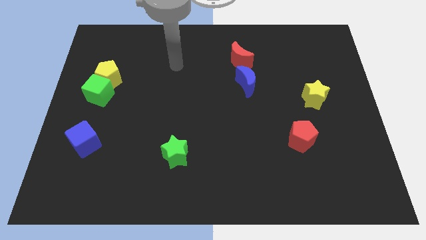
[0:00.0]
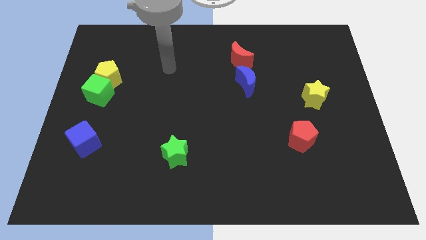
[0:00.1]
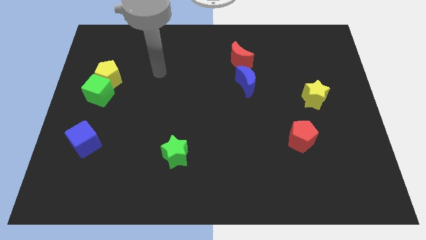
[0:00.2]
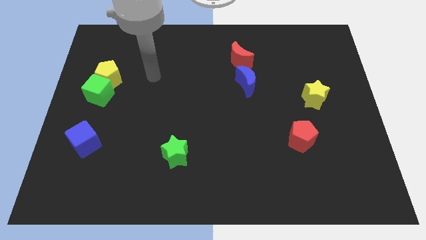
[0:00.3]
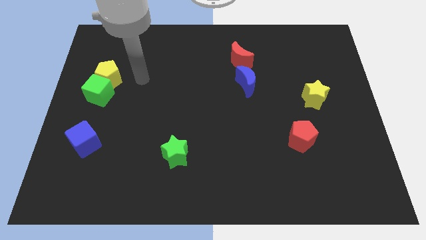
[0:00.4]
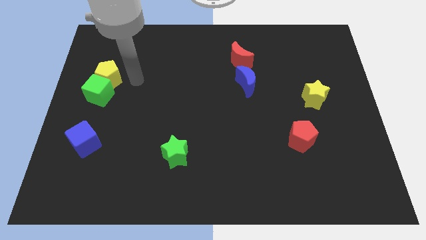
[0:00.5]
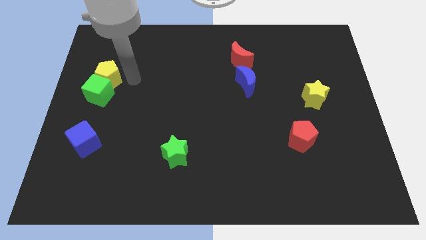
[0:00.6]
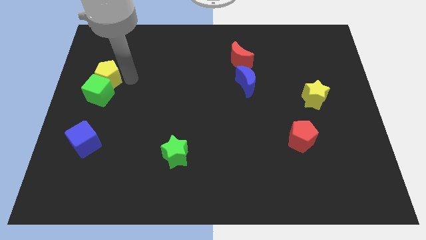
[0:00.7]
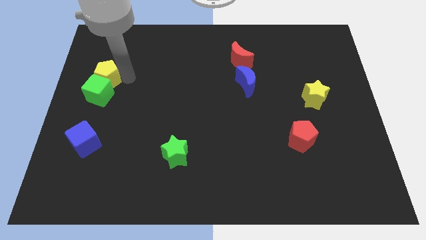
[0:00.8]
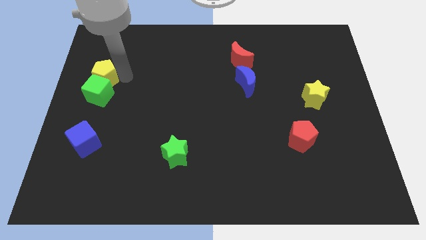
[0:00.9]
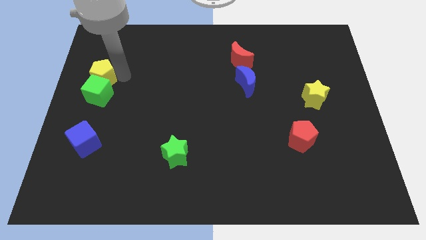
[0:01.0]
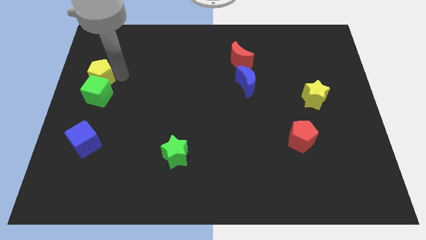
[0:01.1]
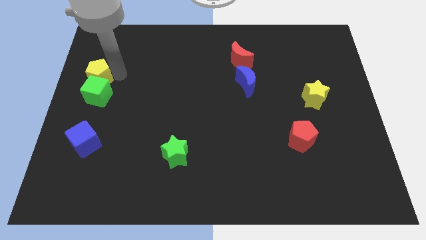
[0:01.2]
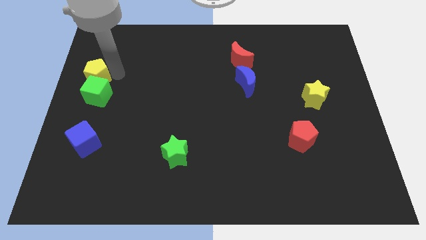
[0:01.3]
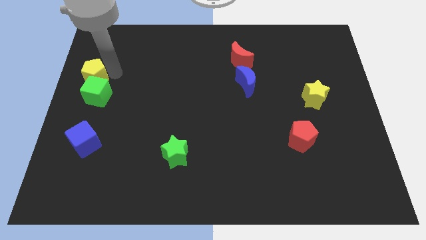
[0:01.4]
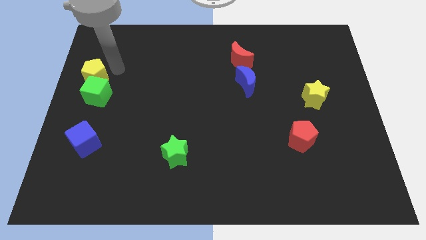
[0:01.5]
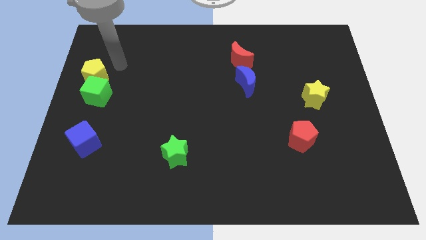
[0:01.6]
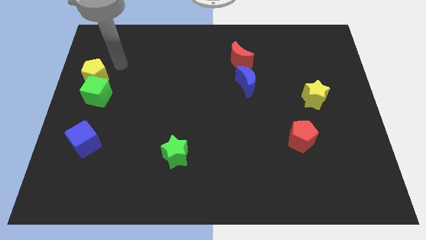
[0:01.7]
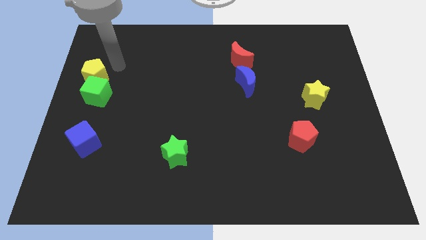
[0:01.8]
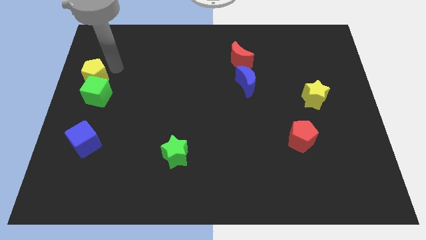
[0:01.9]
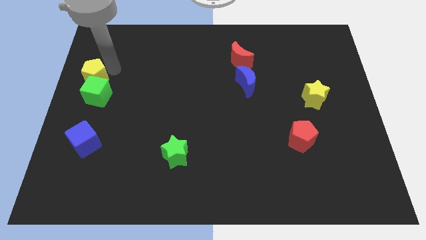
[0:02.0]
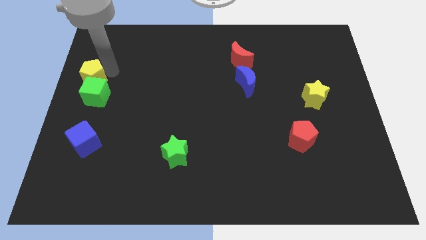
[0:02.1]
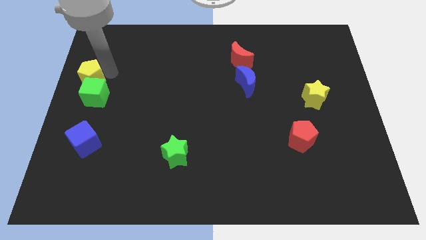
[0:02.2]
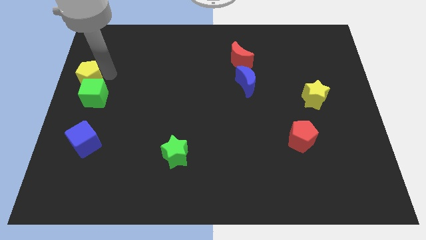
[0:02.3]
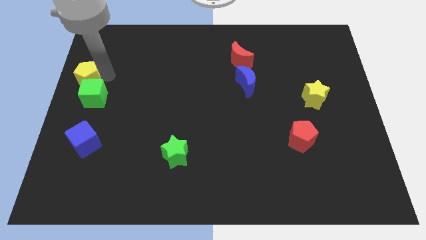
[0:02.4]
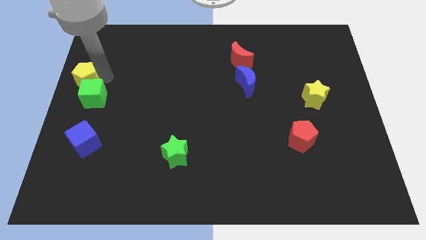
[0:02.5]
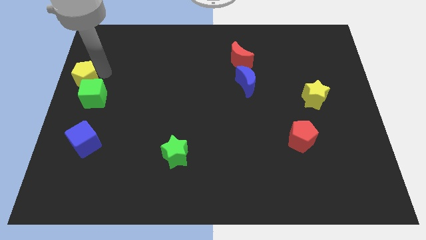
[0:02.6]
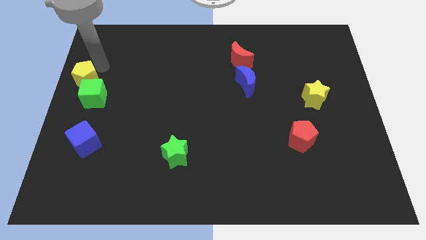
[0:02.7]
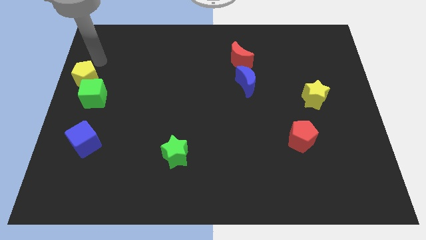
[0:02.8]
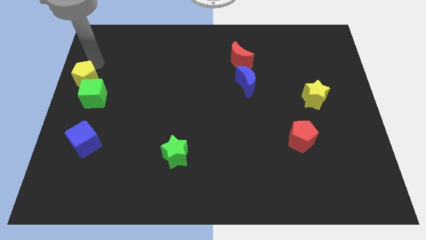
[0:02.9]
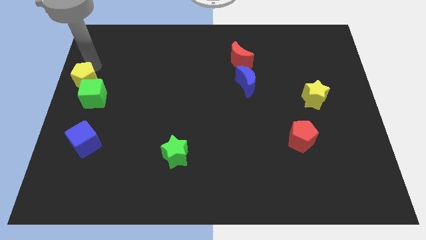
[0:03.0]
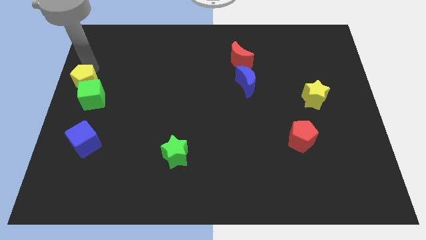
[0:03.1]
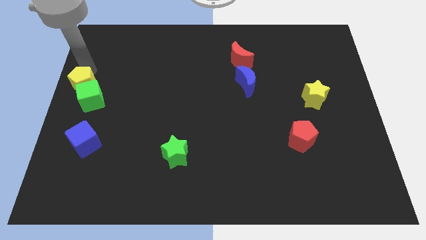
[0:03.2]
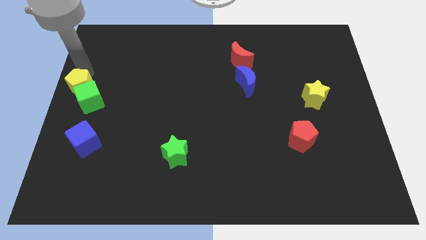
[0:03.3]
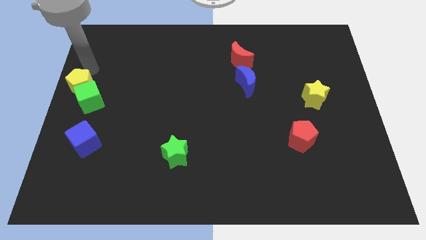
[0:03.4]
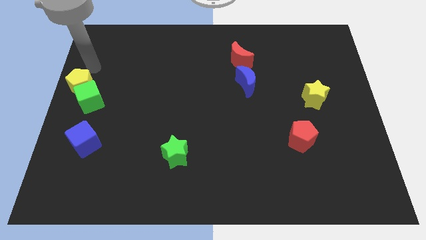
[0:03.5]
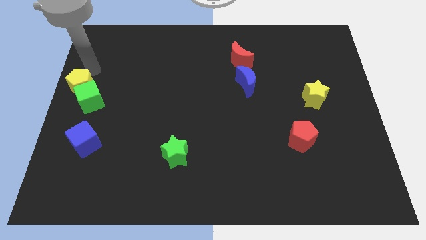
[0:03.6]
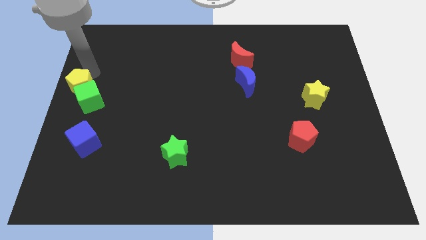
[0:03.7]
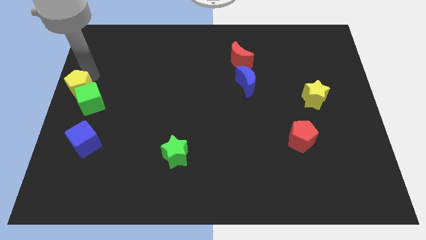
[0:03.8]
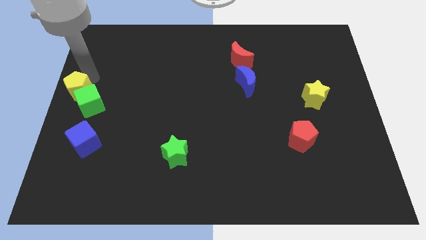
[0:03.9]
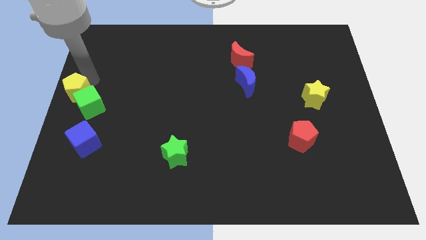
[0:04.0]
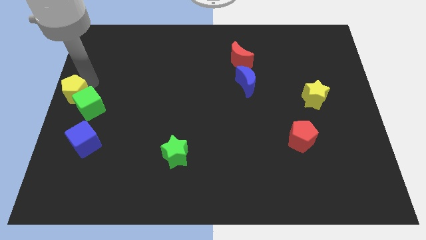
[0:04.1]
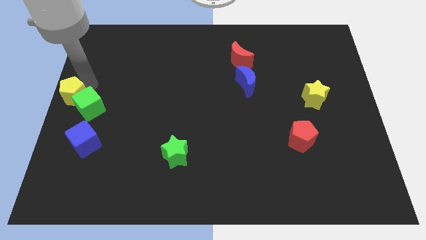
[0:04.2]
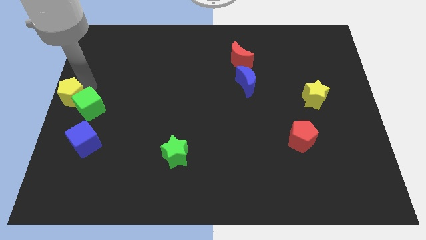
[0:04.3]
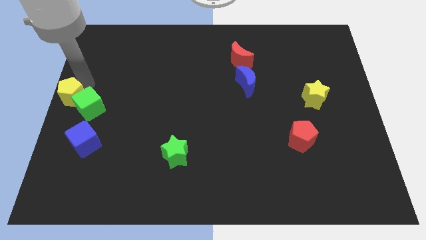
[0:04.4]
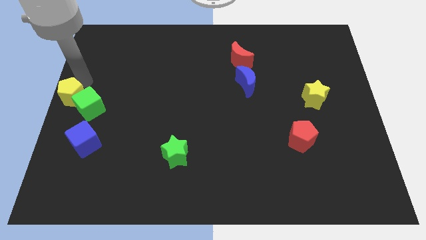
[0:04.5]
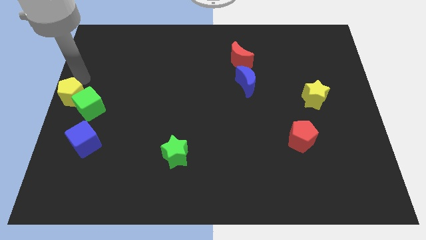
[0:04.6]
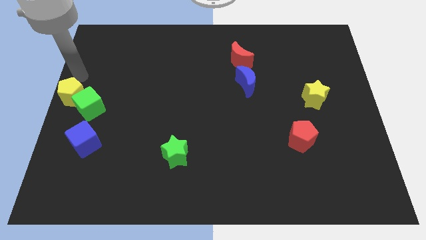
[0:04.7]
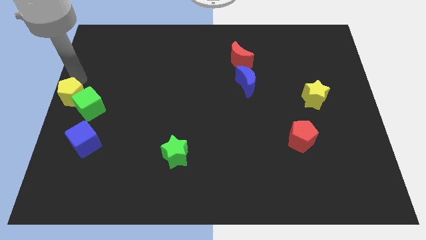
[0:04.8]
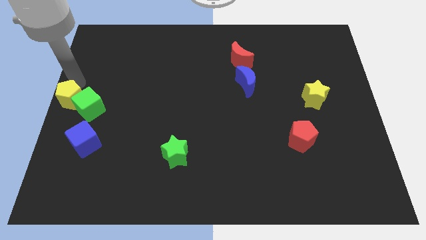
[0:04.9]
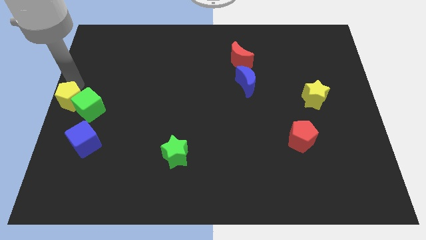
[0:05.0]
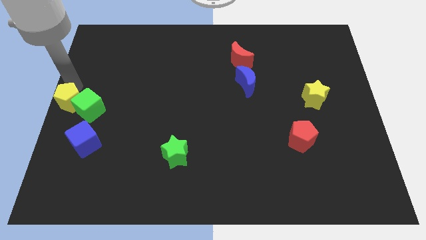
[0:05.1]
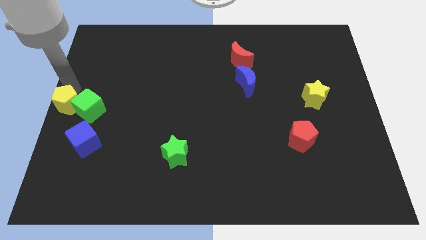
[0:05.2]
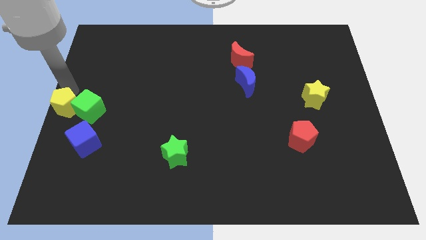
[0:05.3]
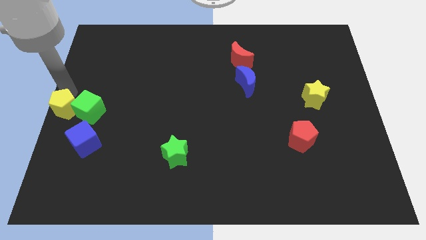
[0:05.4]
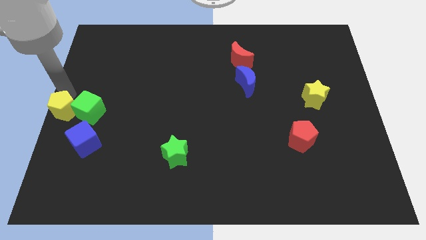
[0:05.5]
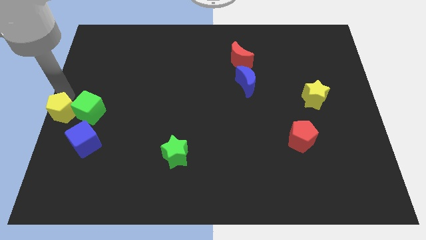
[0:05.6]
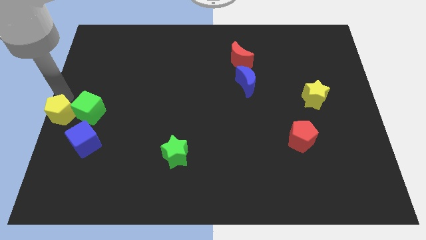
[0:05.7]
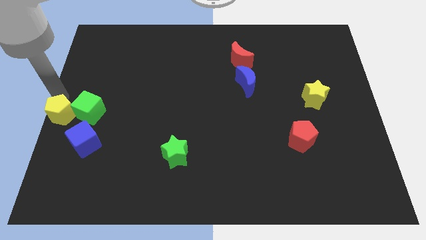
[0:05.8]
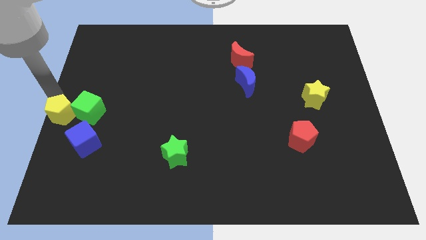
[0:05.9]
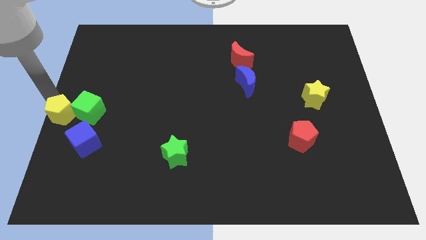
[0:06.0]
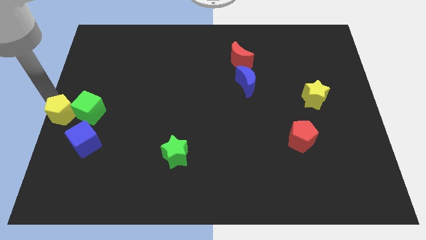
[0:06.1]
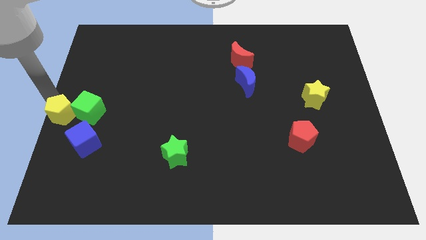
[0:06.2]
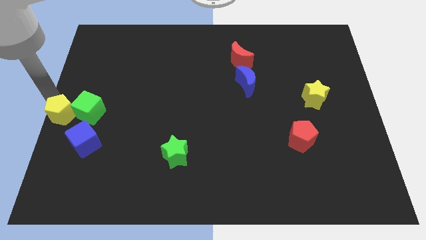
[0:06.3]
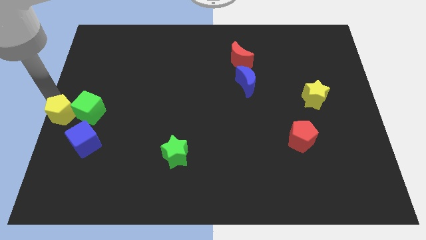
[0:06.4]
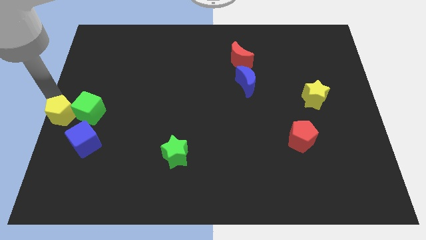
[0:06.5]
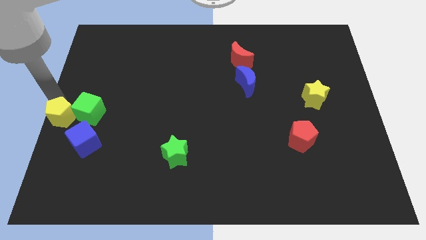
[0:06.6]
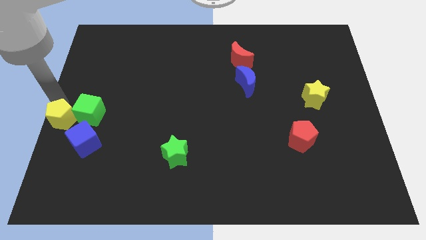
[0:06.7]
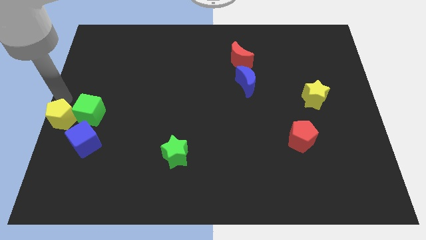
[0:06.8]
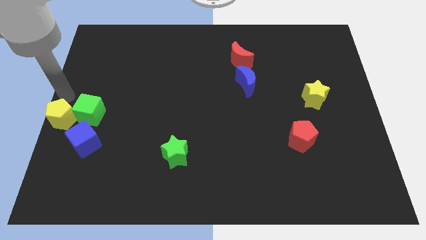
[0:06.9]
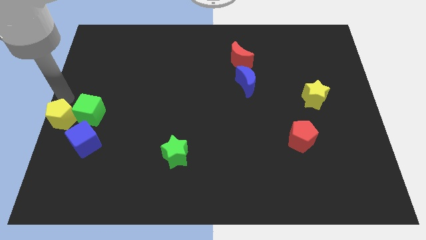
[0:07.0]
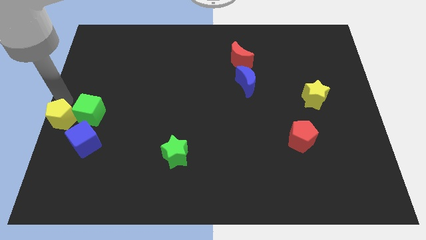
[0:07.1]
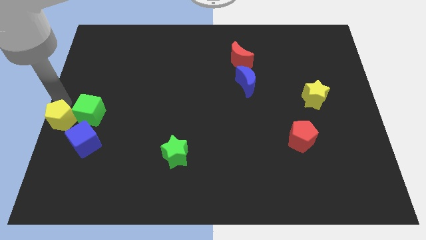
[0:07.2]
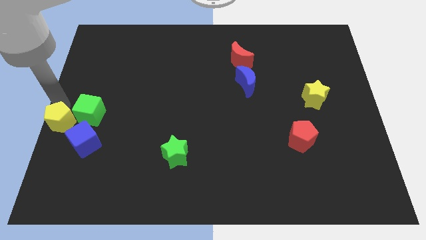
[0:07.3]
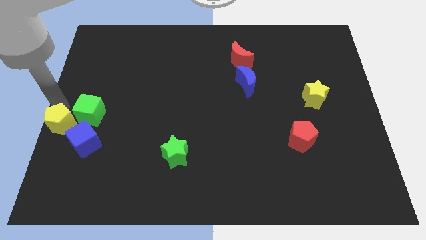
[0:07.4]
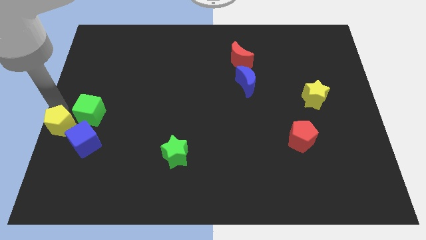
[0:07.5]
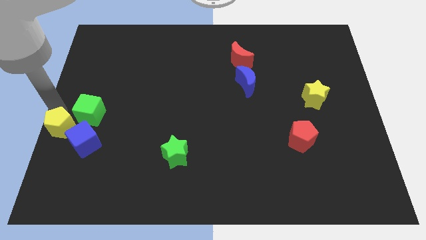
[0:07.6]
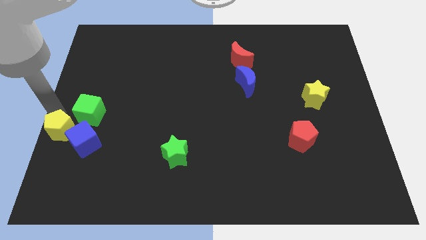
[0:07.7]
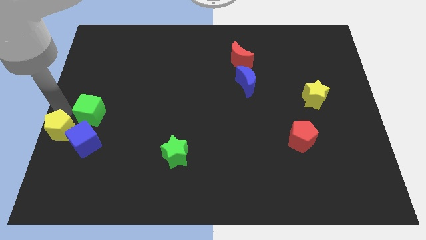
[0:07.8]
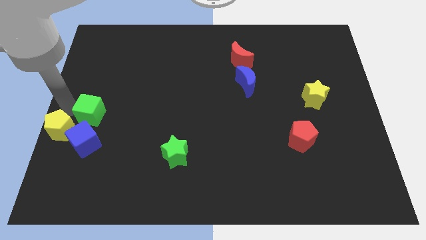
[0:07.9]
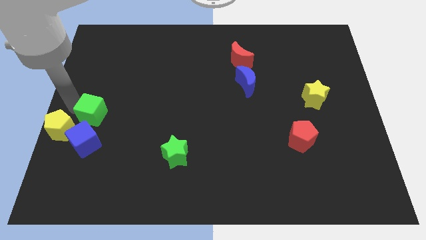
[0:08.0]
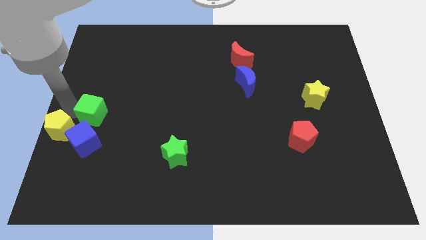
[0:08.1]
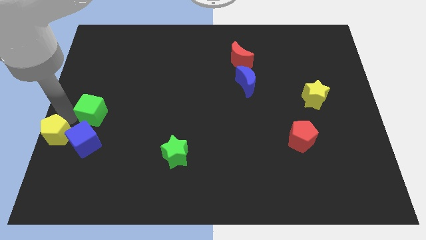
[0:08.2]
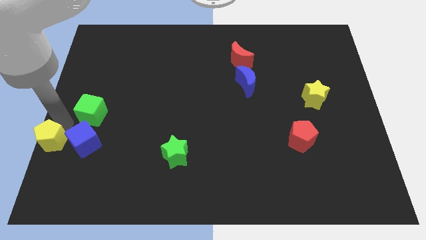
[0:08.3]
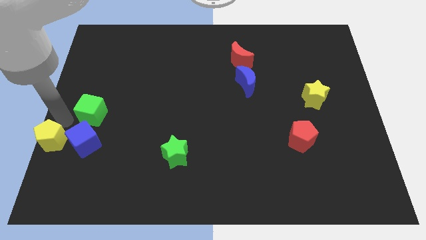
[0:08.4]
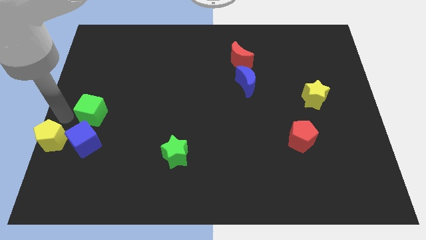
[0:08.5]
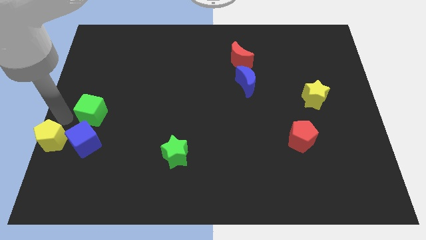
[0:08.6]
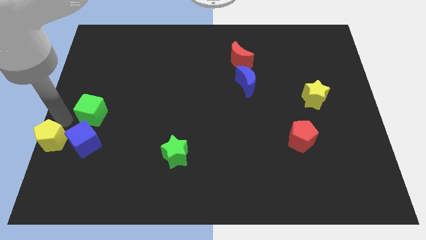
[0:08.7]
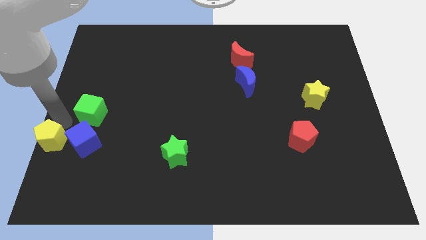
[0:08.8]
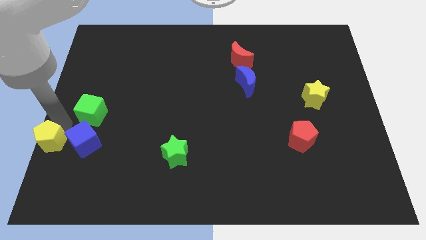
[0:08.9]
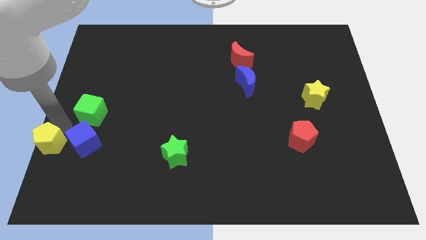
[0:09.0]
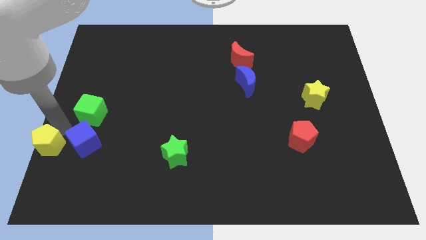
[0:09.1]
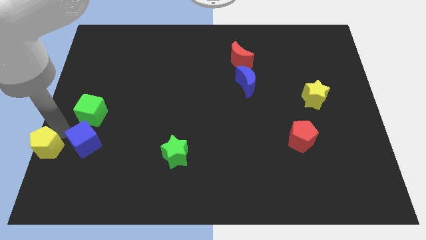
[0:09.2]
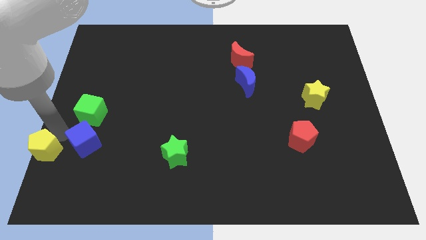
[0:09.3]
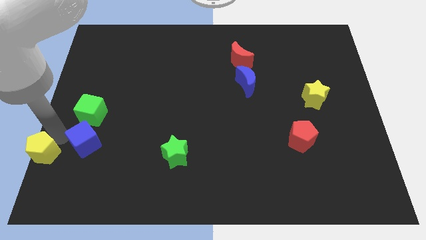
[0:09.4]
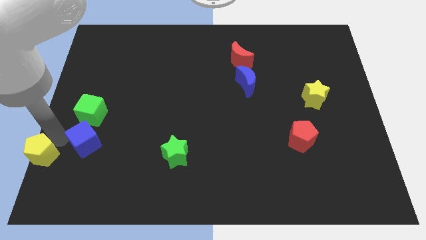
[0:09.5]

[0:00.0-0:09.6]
slide the yellow pentagon to the bottom left corner
